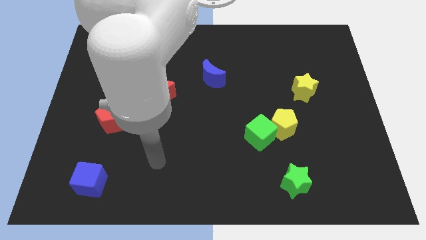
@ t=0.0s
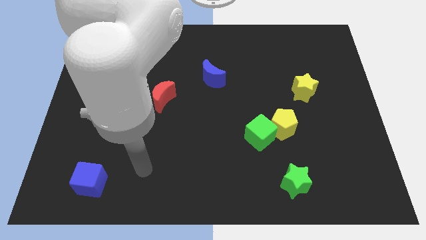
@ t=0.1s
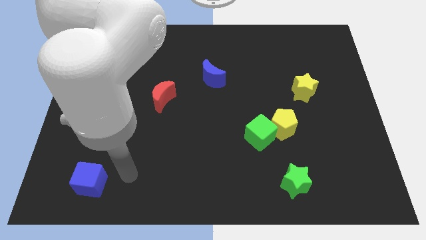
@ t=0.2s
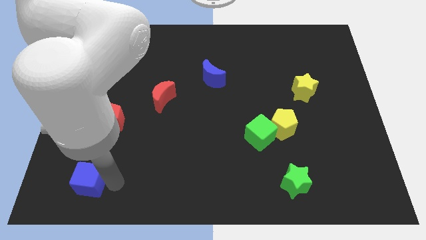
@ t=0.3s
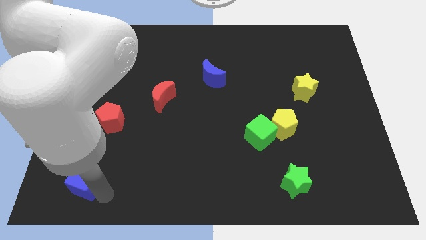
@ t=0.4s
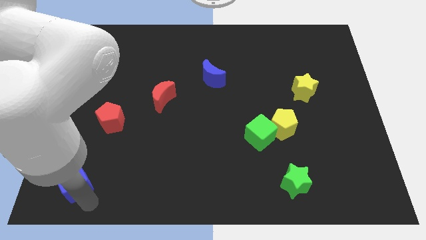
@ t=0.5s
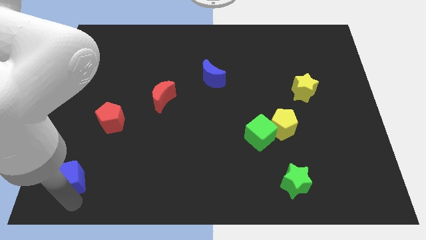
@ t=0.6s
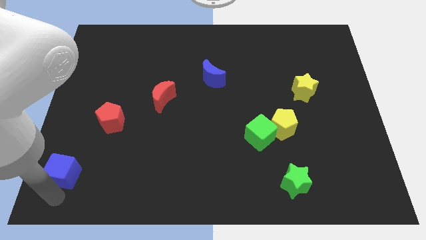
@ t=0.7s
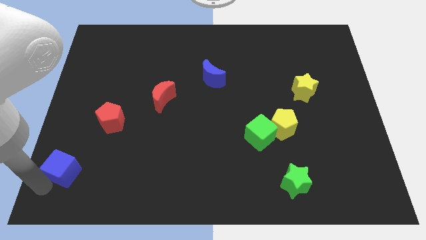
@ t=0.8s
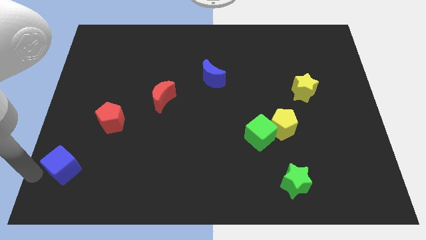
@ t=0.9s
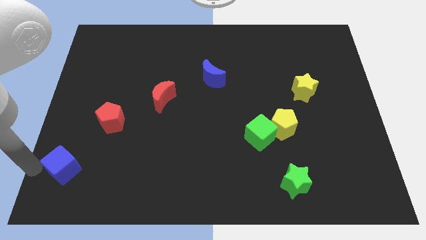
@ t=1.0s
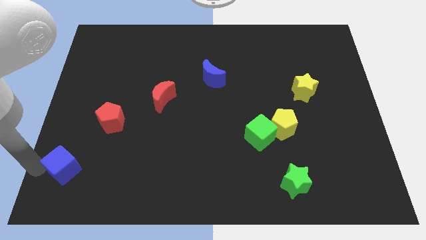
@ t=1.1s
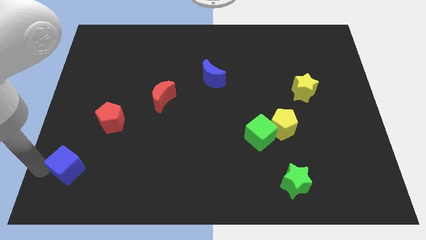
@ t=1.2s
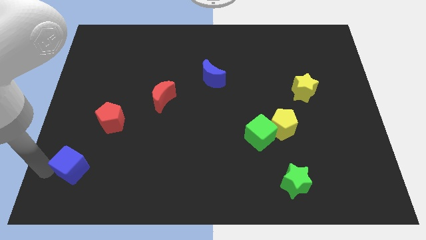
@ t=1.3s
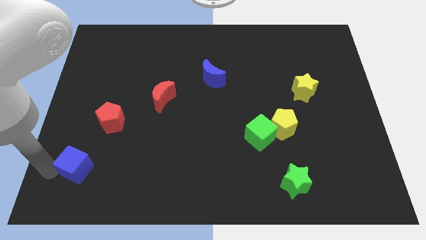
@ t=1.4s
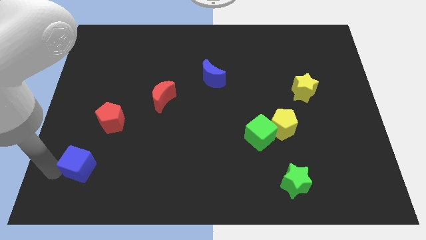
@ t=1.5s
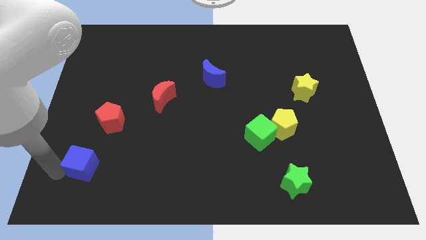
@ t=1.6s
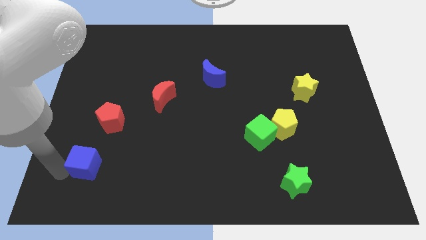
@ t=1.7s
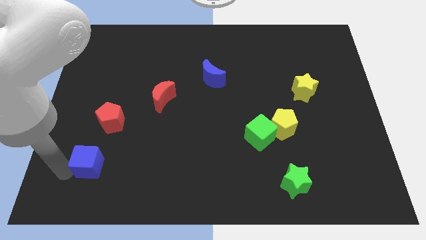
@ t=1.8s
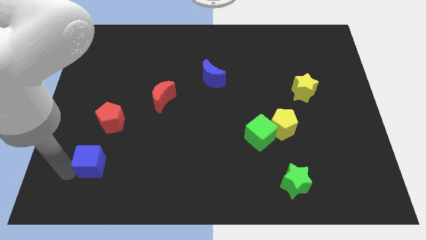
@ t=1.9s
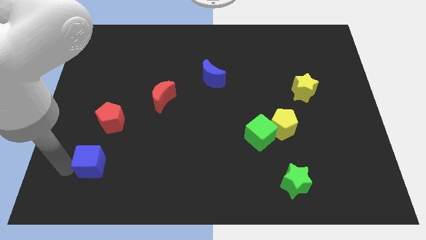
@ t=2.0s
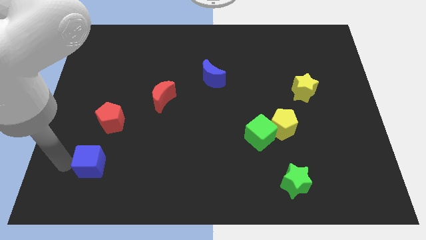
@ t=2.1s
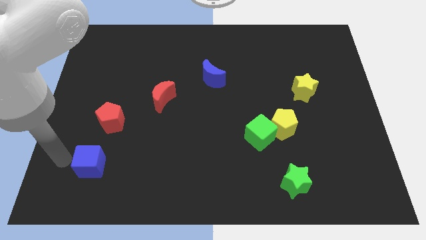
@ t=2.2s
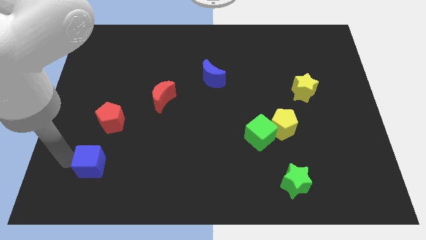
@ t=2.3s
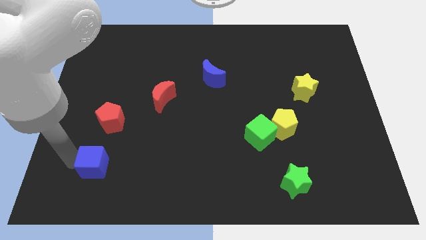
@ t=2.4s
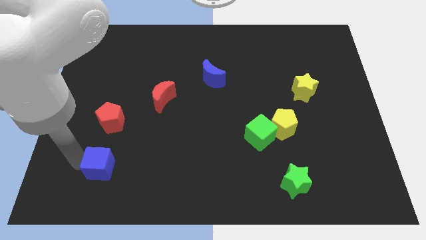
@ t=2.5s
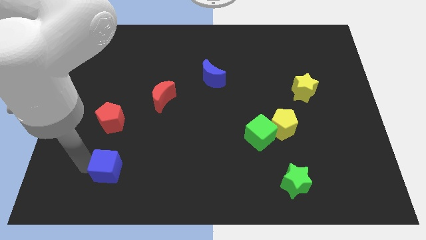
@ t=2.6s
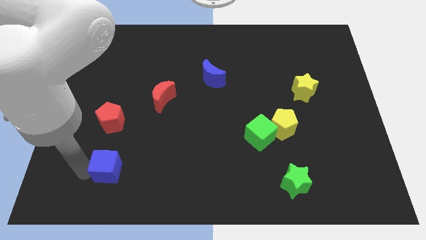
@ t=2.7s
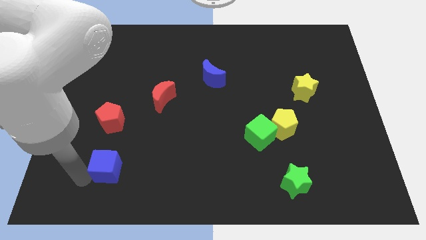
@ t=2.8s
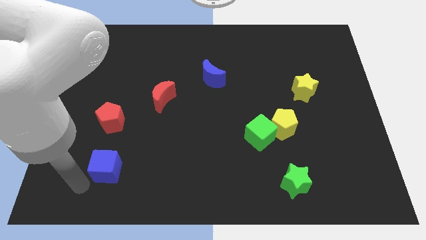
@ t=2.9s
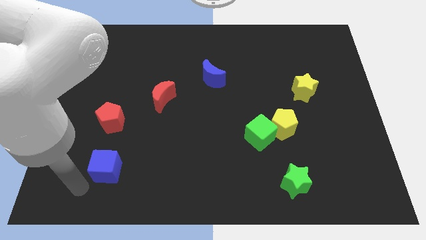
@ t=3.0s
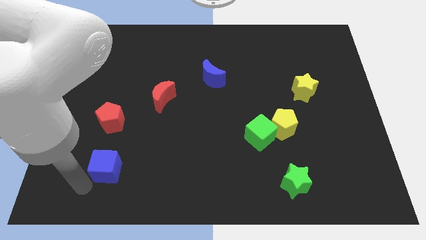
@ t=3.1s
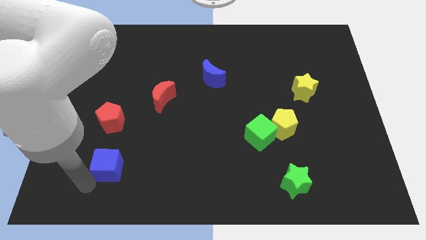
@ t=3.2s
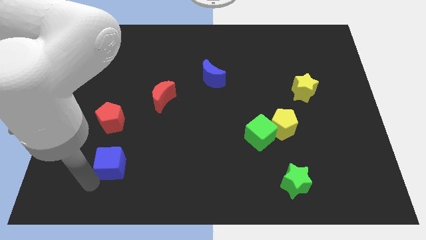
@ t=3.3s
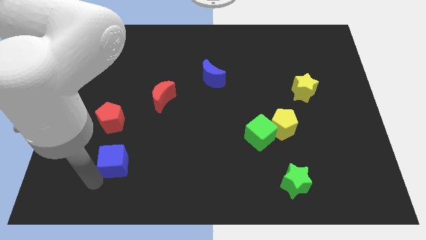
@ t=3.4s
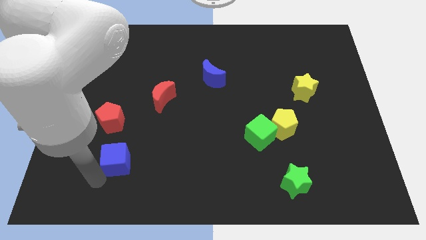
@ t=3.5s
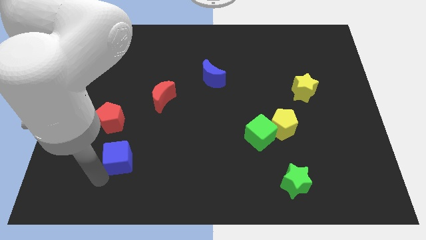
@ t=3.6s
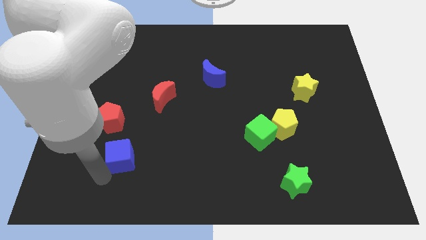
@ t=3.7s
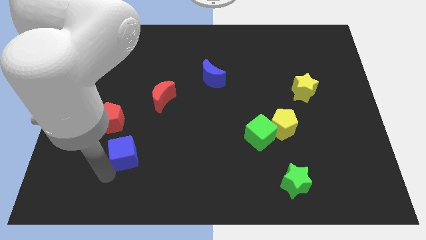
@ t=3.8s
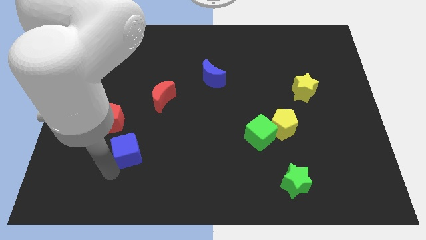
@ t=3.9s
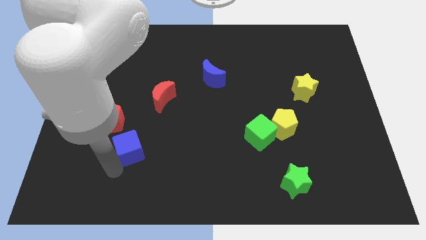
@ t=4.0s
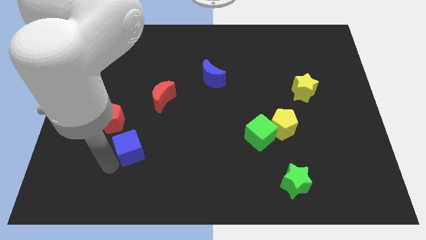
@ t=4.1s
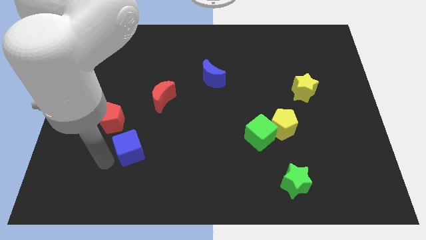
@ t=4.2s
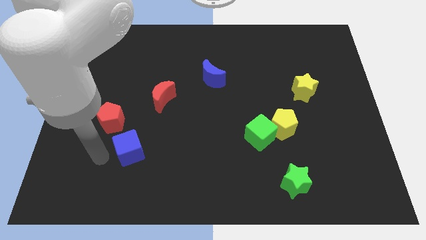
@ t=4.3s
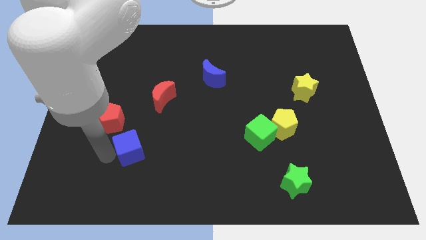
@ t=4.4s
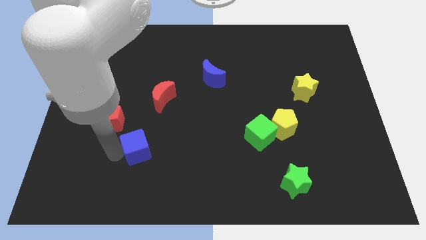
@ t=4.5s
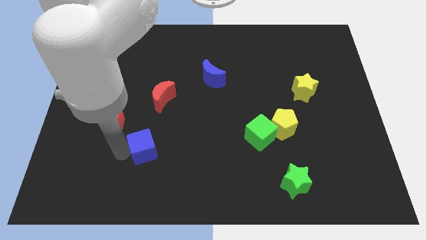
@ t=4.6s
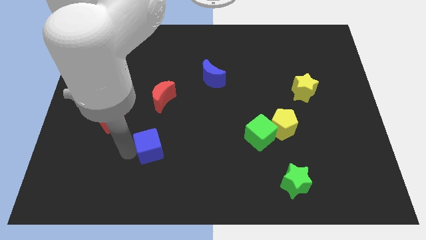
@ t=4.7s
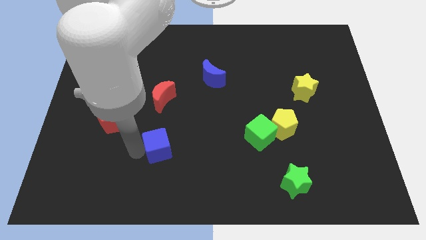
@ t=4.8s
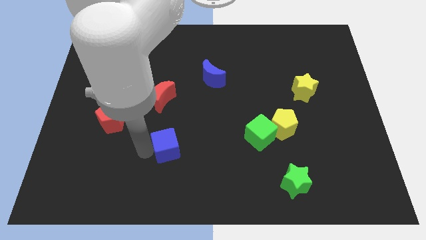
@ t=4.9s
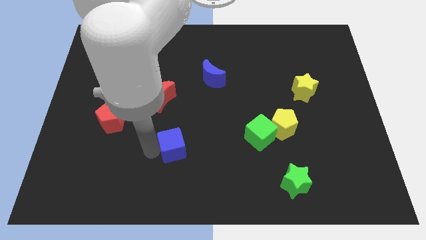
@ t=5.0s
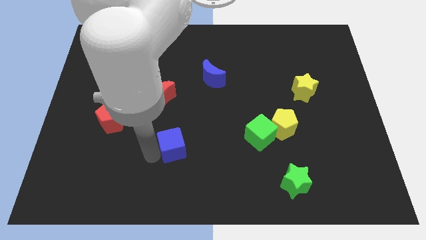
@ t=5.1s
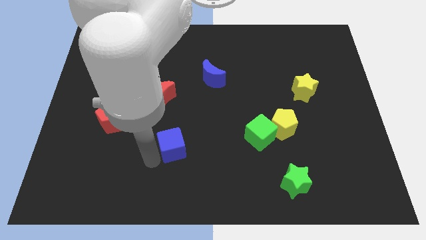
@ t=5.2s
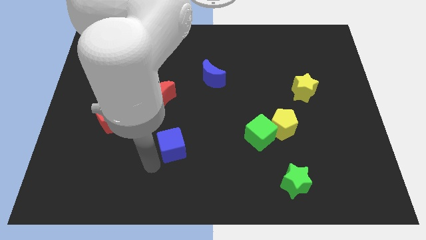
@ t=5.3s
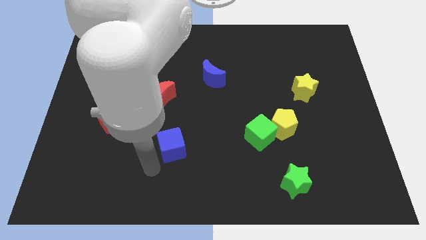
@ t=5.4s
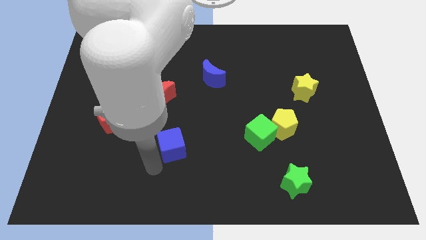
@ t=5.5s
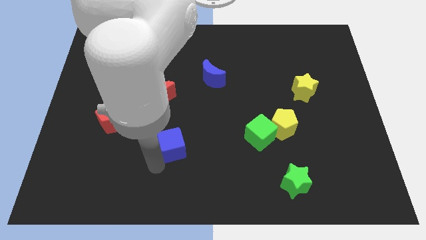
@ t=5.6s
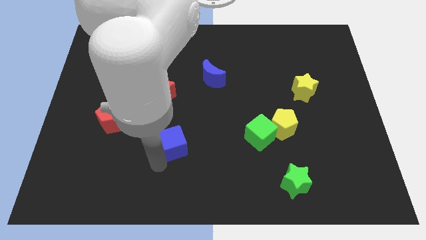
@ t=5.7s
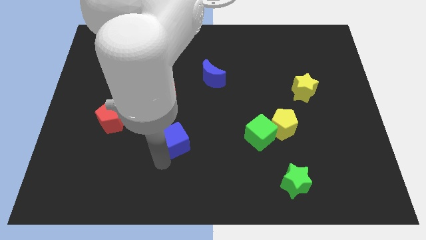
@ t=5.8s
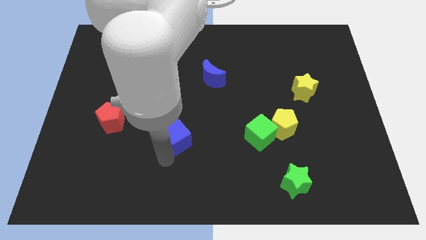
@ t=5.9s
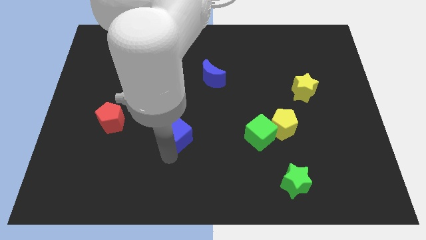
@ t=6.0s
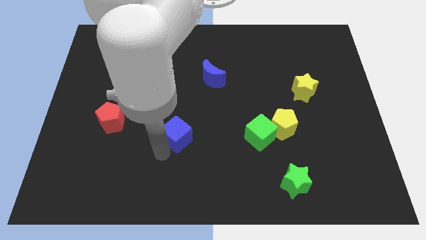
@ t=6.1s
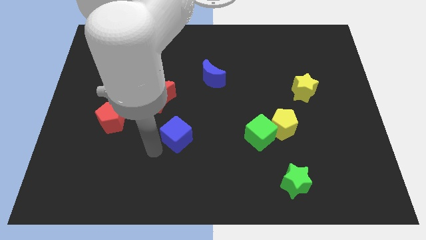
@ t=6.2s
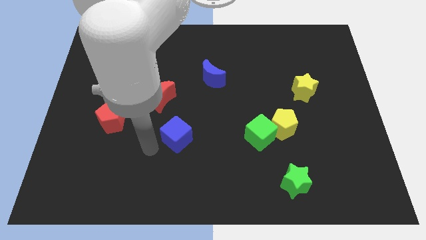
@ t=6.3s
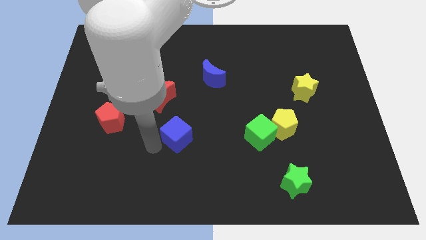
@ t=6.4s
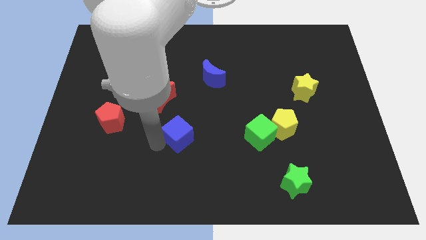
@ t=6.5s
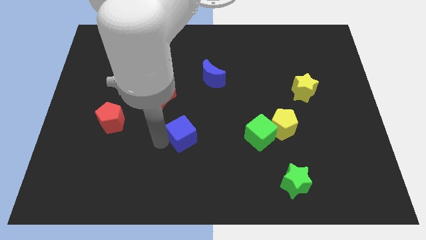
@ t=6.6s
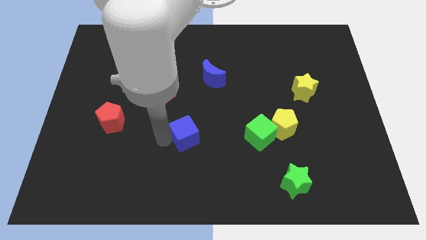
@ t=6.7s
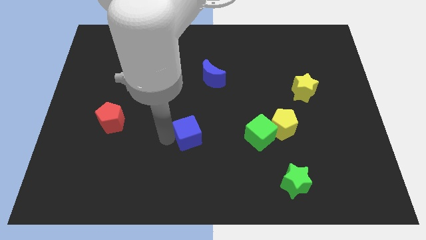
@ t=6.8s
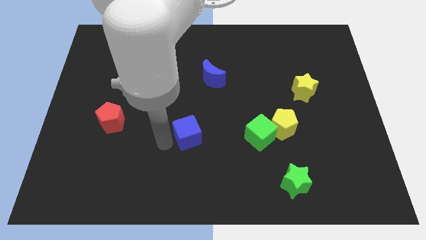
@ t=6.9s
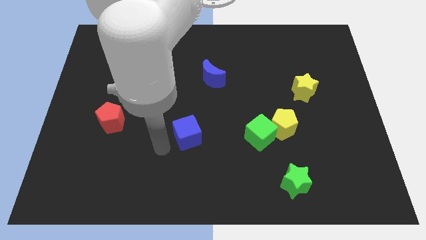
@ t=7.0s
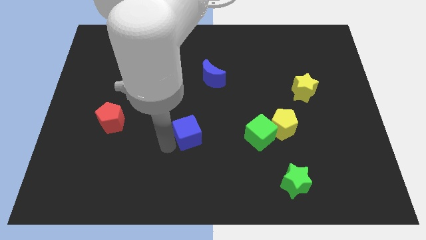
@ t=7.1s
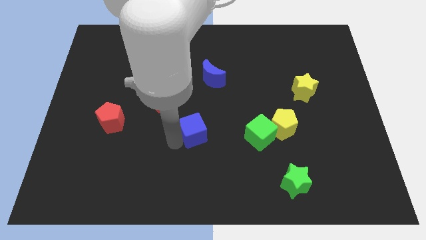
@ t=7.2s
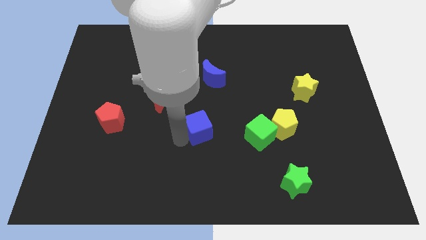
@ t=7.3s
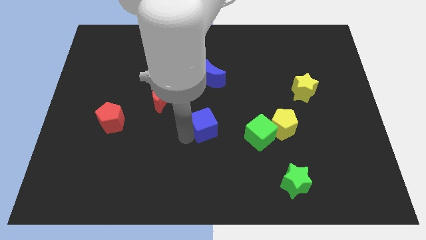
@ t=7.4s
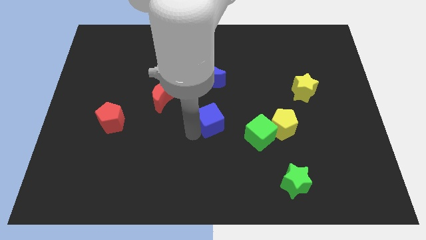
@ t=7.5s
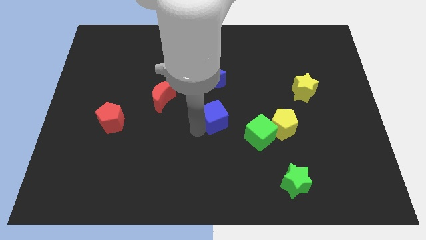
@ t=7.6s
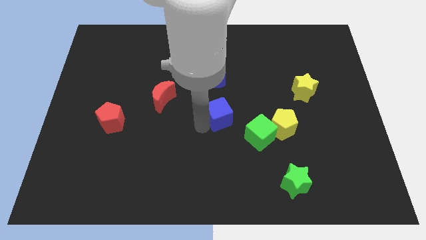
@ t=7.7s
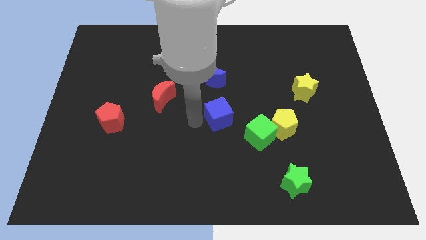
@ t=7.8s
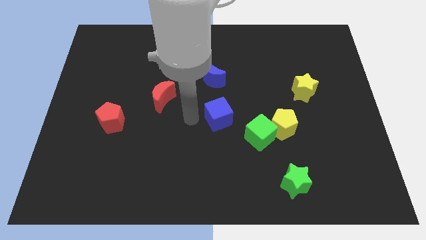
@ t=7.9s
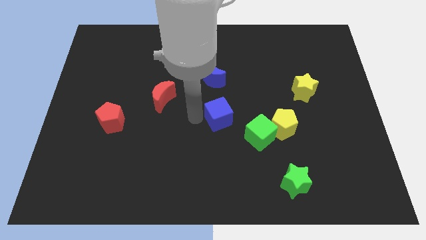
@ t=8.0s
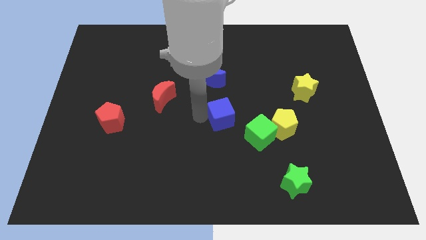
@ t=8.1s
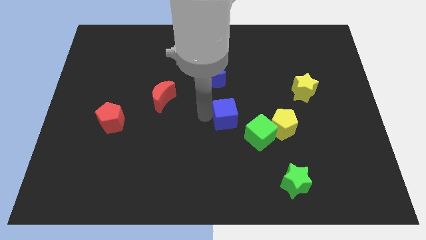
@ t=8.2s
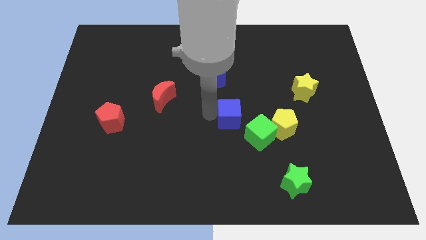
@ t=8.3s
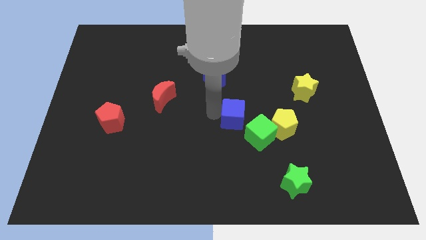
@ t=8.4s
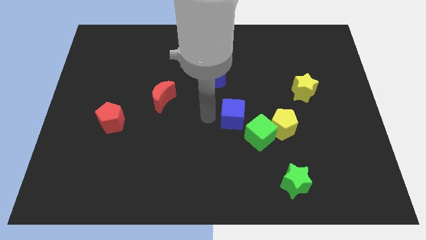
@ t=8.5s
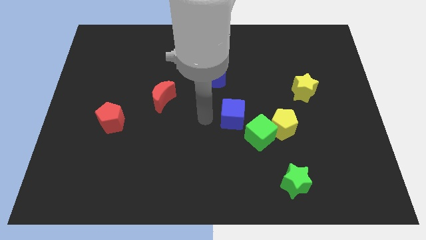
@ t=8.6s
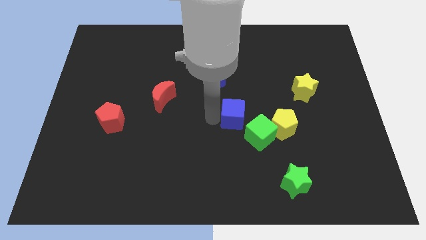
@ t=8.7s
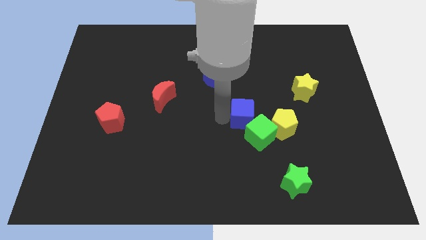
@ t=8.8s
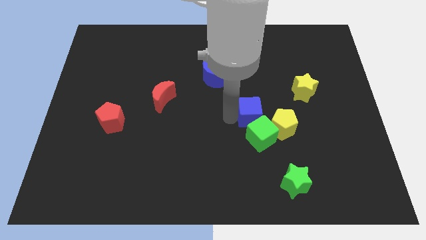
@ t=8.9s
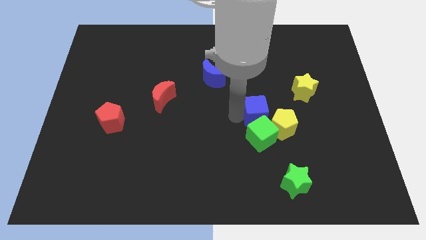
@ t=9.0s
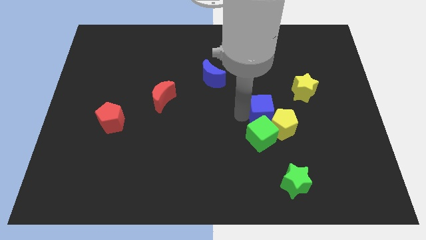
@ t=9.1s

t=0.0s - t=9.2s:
push the blue cube to the yellow pentagon
